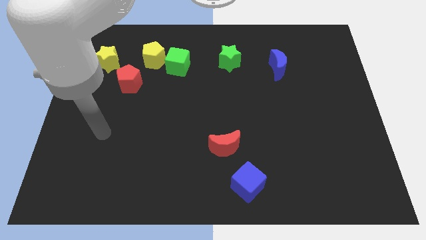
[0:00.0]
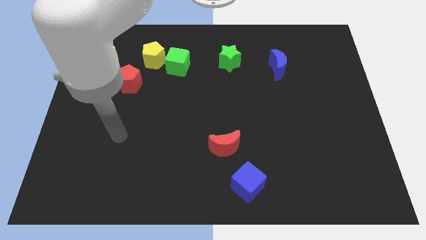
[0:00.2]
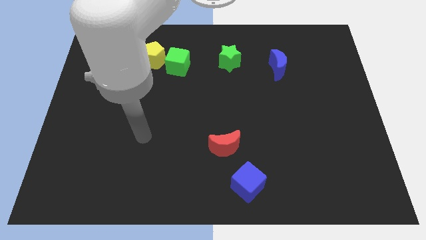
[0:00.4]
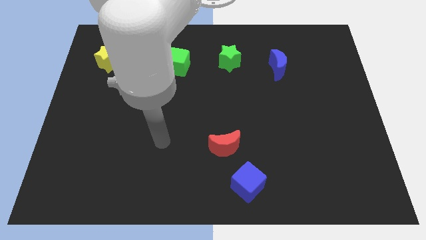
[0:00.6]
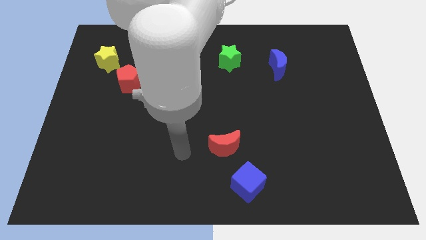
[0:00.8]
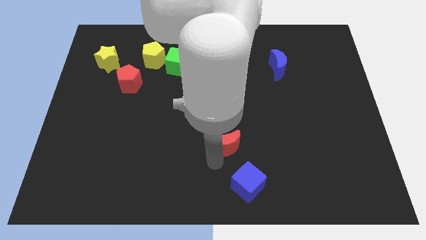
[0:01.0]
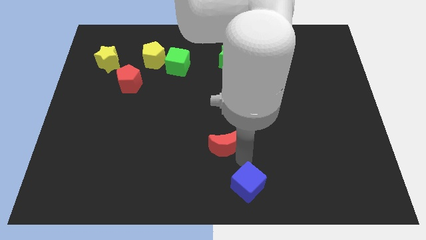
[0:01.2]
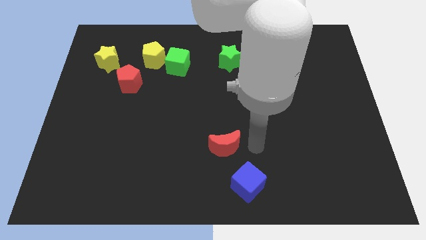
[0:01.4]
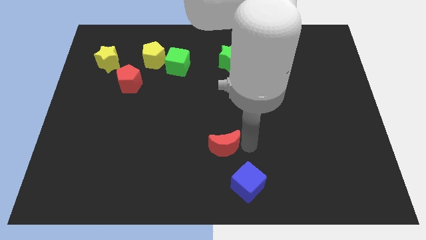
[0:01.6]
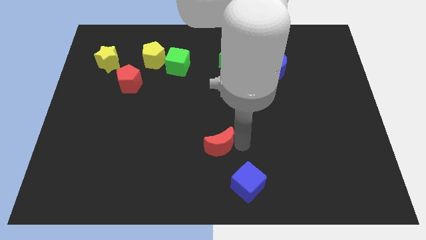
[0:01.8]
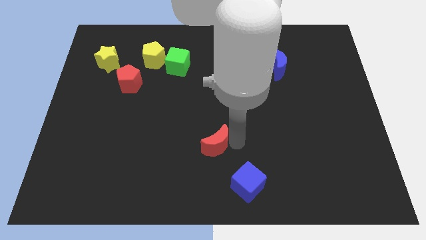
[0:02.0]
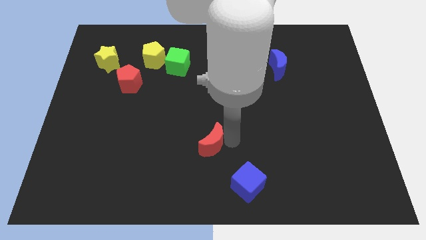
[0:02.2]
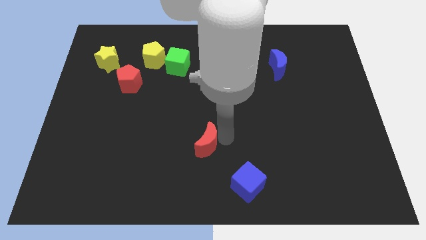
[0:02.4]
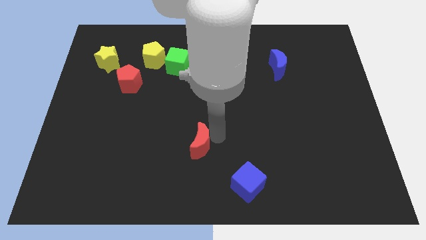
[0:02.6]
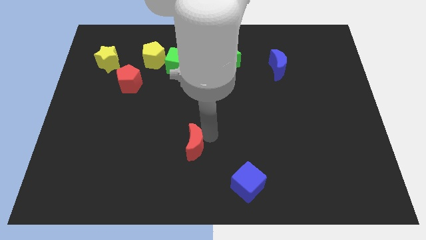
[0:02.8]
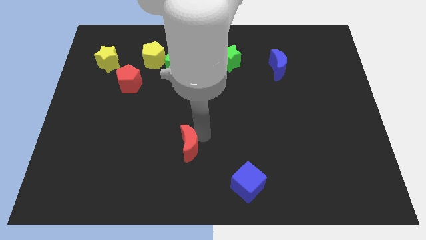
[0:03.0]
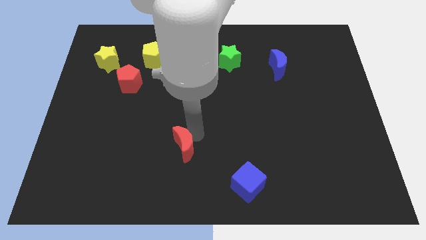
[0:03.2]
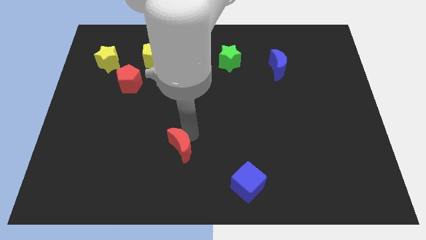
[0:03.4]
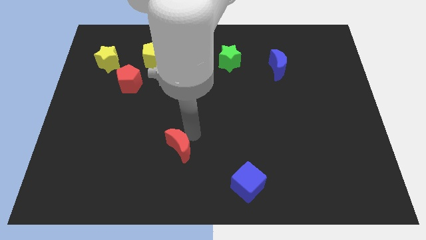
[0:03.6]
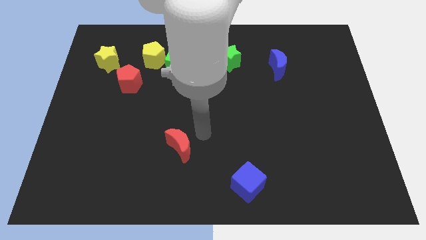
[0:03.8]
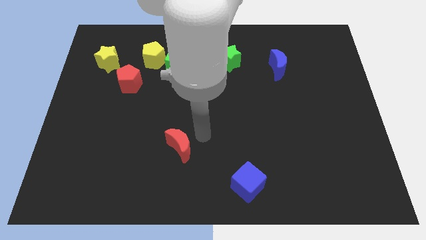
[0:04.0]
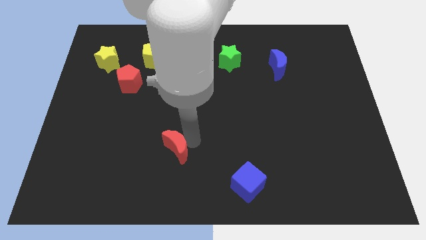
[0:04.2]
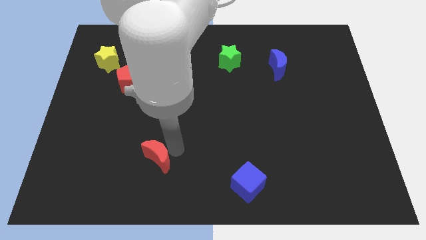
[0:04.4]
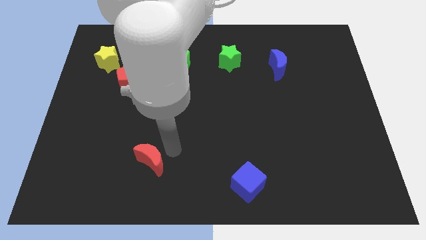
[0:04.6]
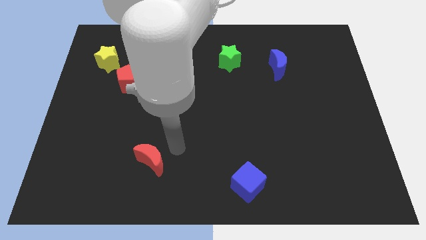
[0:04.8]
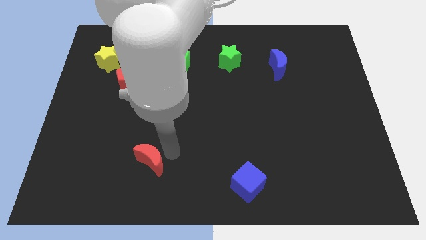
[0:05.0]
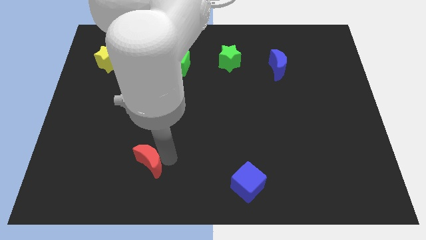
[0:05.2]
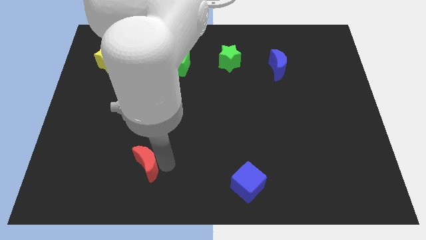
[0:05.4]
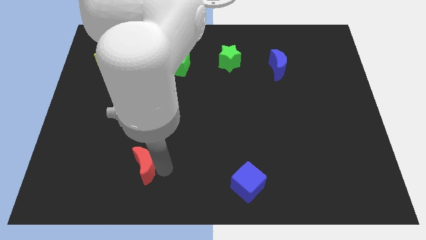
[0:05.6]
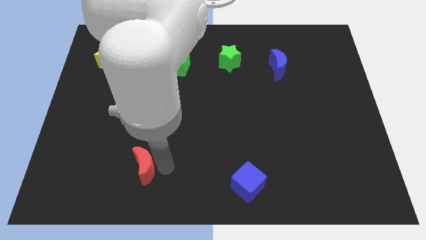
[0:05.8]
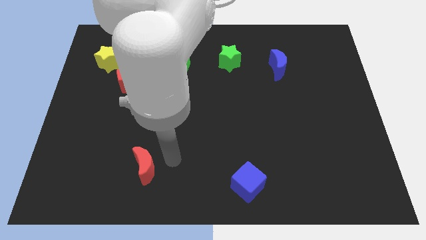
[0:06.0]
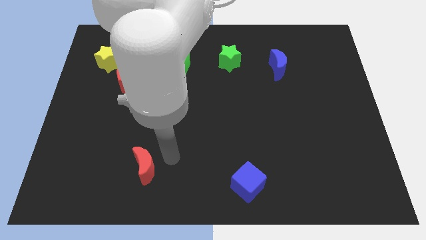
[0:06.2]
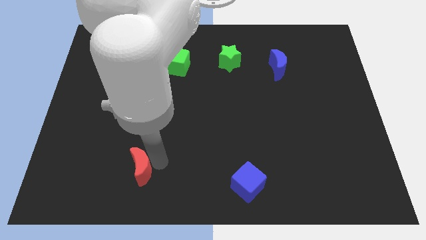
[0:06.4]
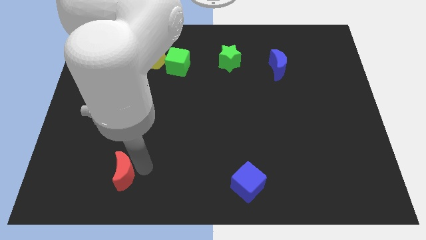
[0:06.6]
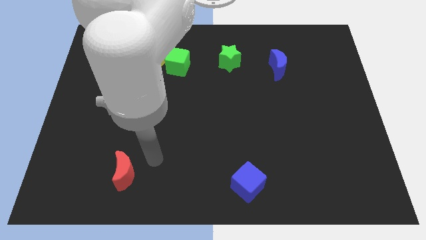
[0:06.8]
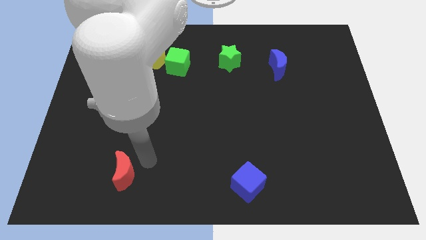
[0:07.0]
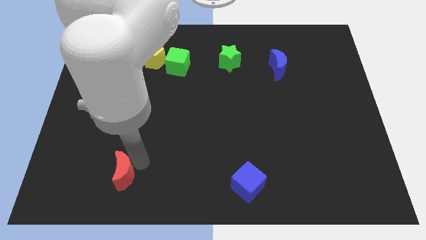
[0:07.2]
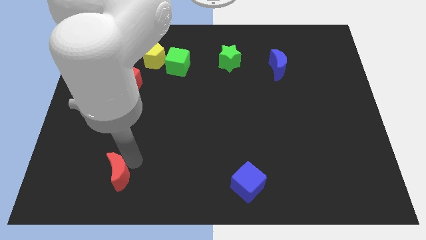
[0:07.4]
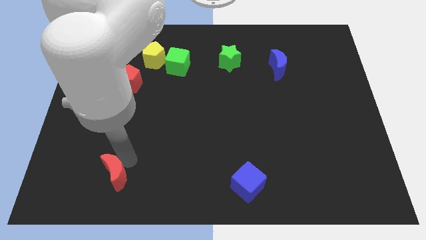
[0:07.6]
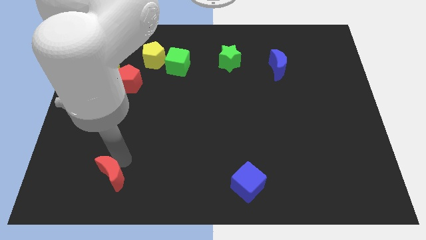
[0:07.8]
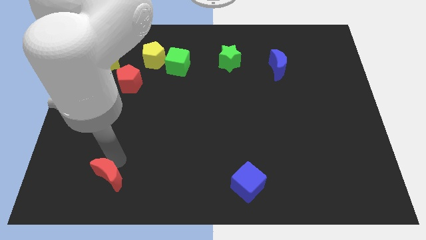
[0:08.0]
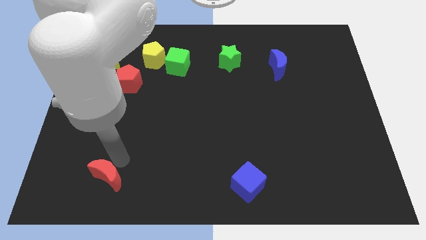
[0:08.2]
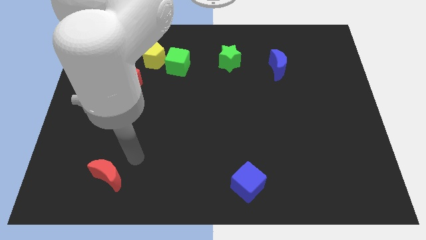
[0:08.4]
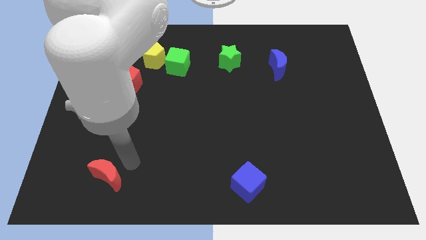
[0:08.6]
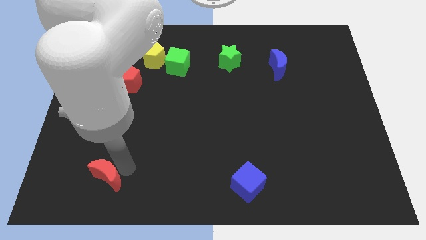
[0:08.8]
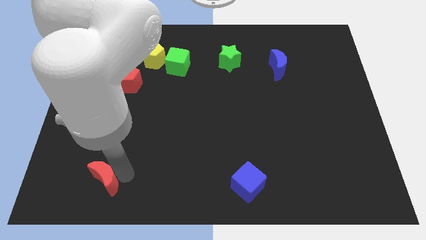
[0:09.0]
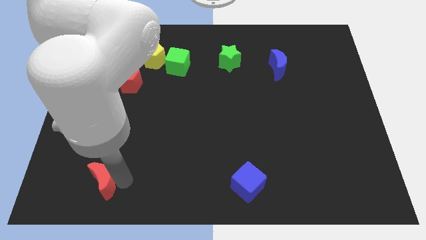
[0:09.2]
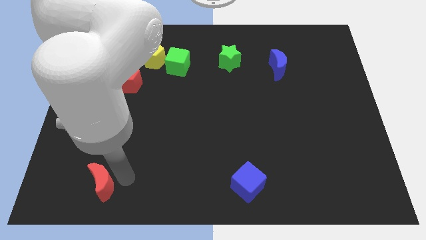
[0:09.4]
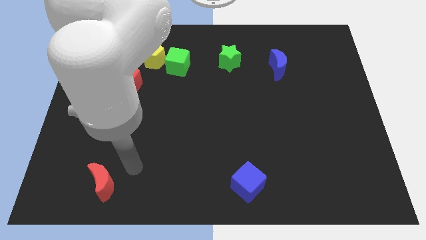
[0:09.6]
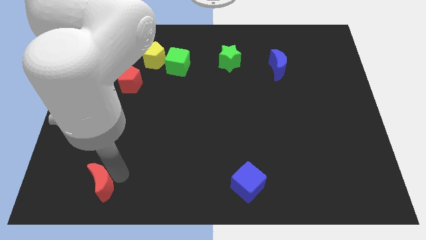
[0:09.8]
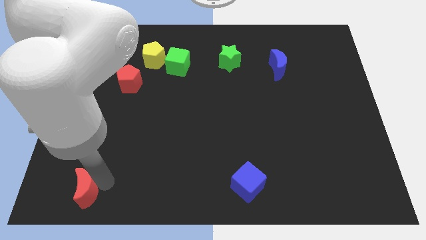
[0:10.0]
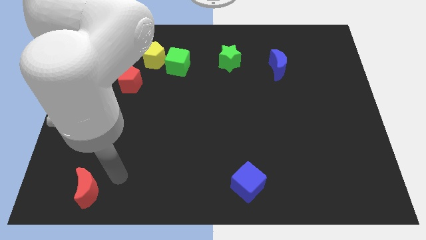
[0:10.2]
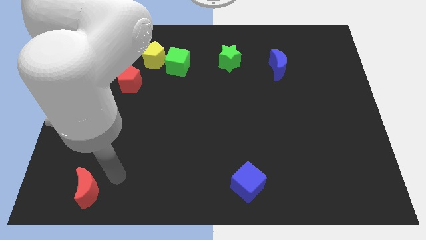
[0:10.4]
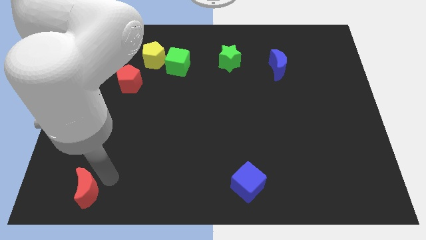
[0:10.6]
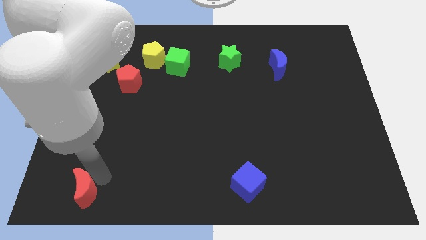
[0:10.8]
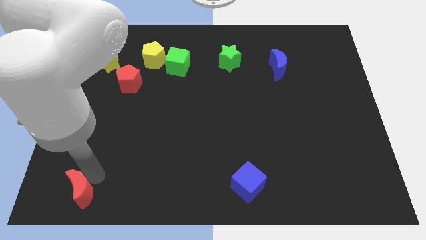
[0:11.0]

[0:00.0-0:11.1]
push the red moon to the bottom left of the board
